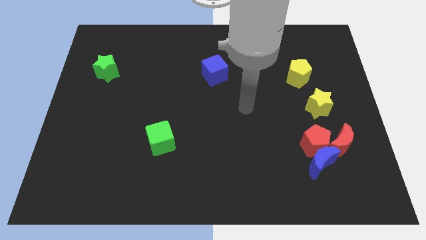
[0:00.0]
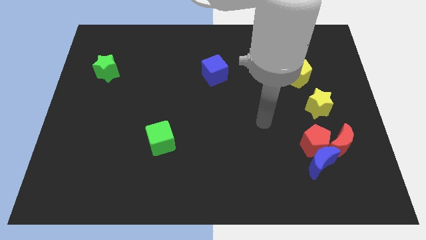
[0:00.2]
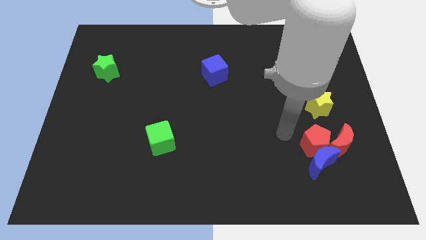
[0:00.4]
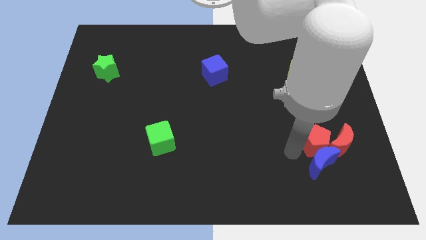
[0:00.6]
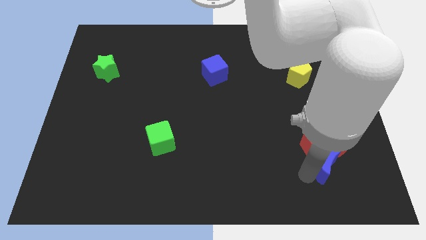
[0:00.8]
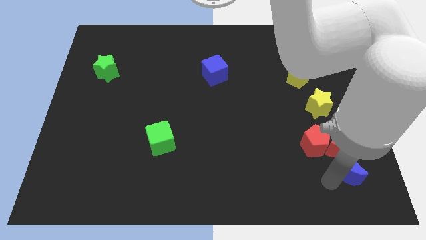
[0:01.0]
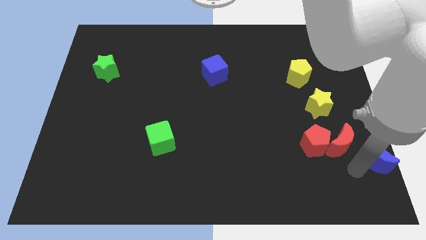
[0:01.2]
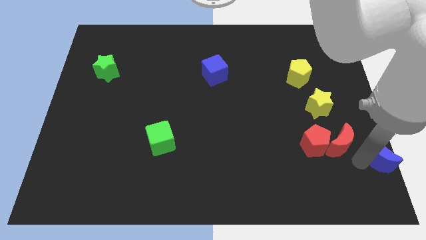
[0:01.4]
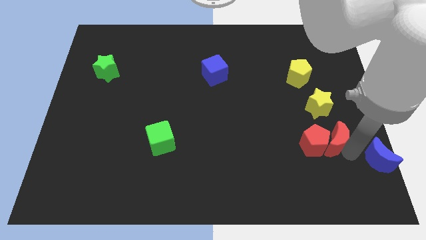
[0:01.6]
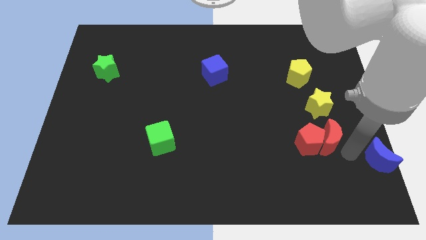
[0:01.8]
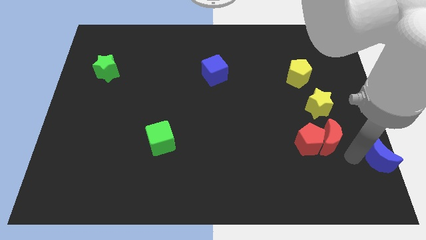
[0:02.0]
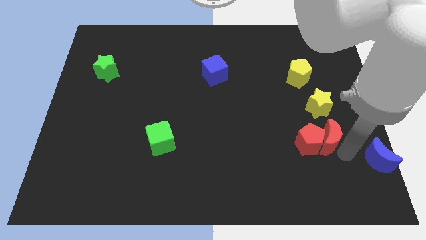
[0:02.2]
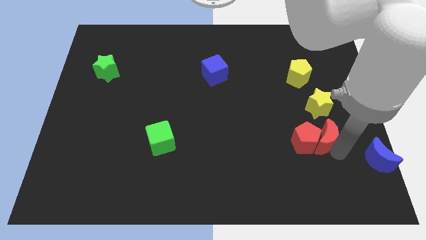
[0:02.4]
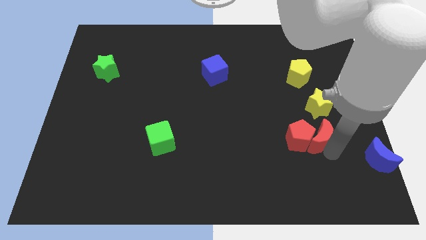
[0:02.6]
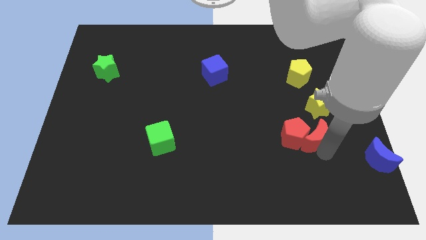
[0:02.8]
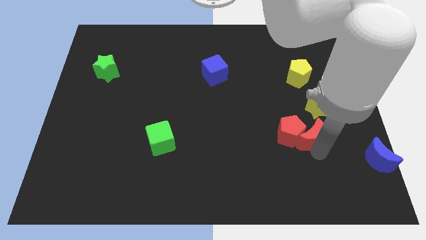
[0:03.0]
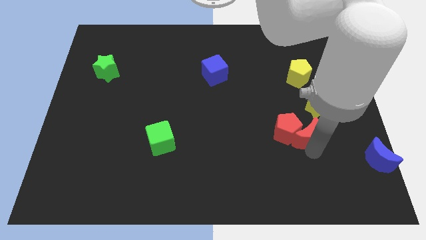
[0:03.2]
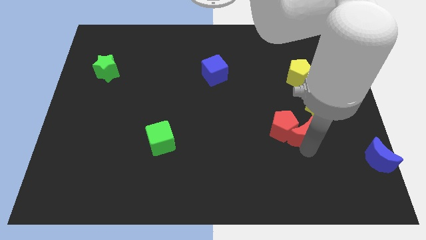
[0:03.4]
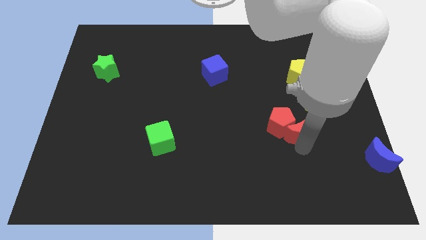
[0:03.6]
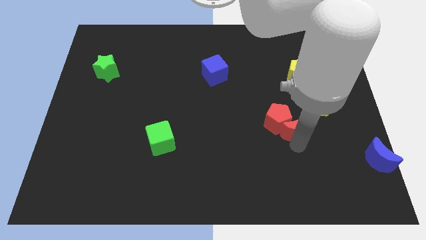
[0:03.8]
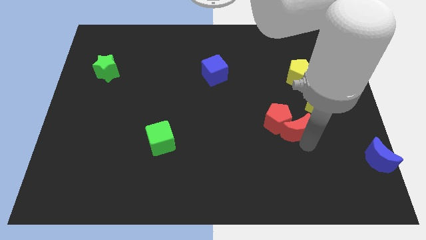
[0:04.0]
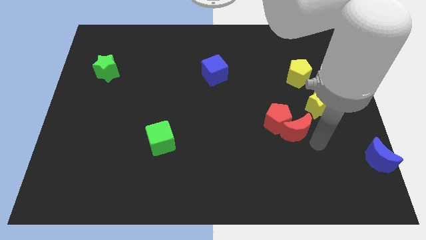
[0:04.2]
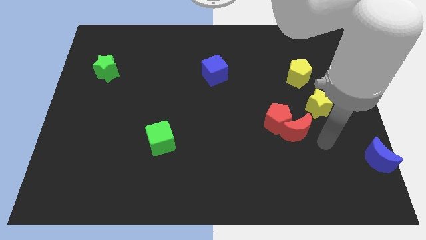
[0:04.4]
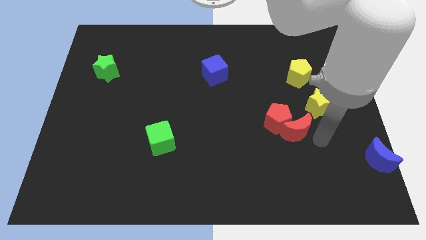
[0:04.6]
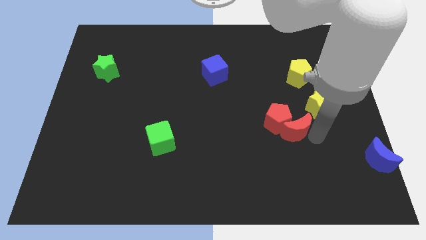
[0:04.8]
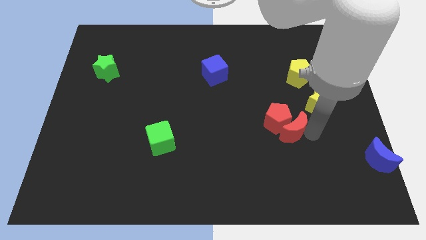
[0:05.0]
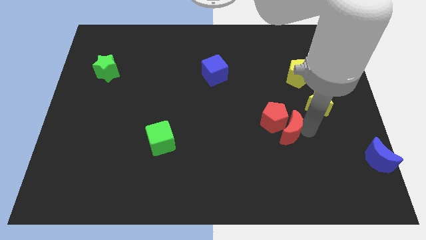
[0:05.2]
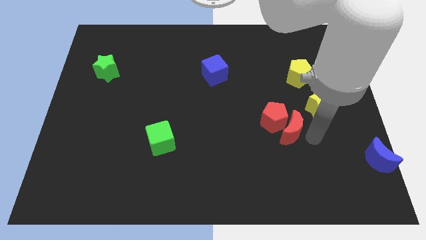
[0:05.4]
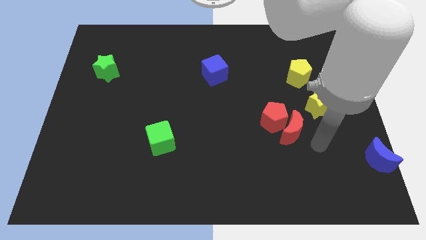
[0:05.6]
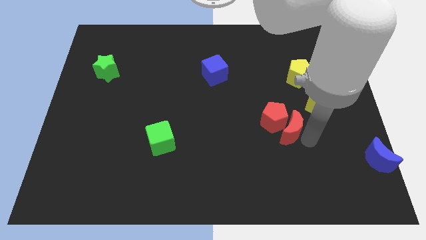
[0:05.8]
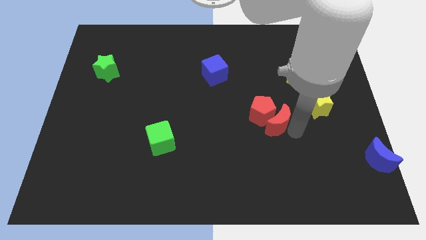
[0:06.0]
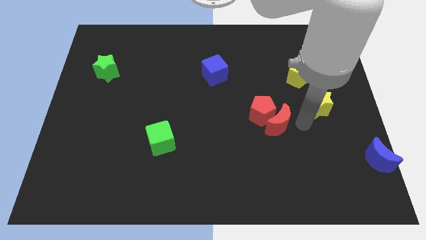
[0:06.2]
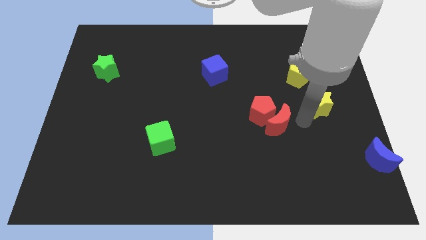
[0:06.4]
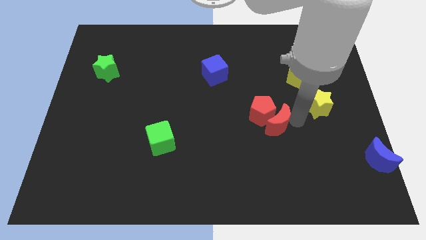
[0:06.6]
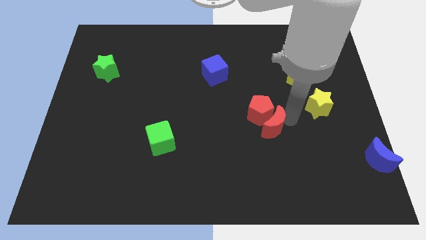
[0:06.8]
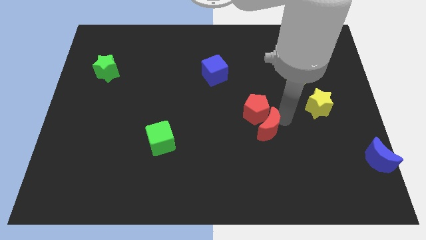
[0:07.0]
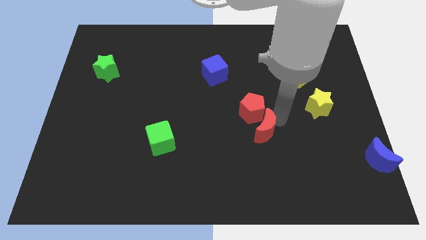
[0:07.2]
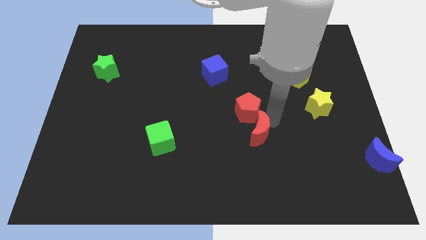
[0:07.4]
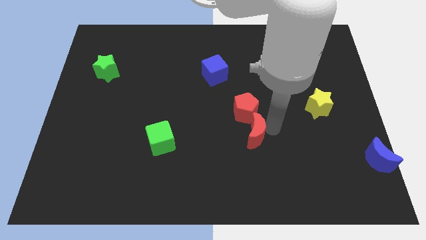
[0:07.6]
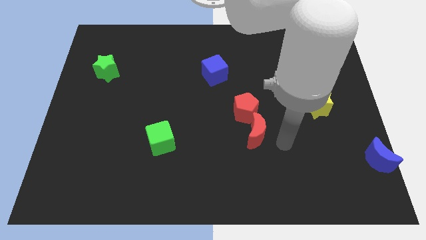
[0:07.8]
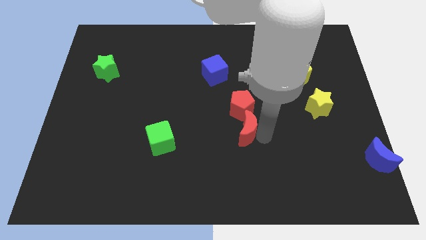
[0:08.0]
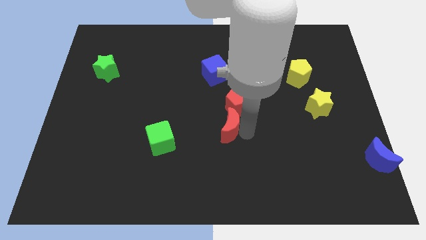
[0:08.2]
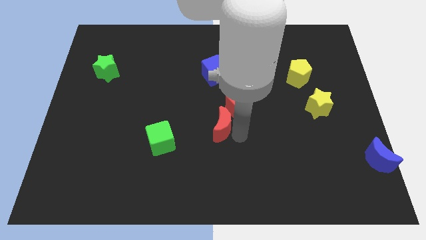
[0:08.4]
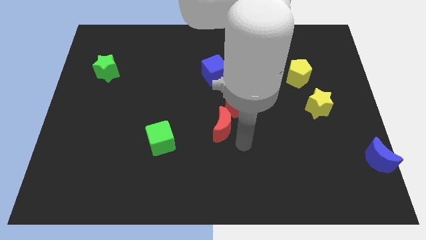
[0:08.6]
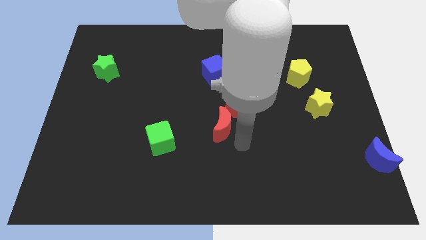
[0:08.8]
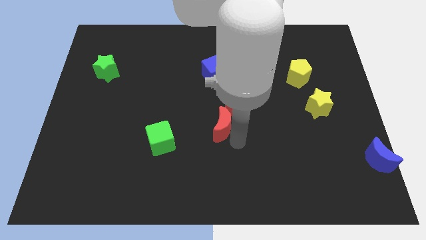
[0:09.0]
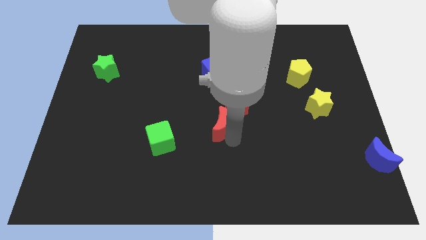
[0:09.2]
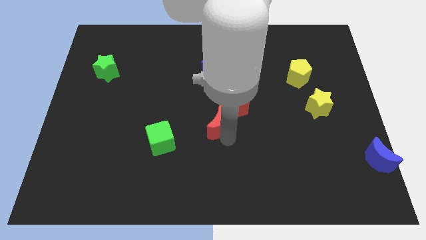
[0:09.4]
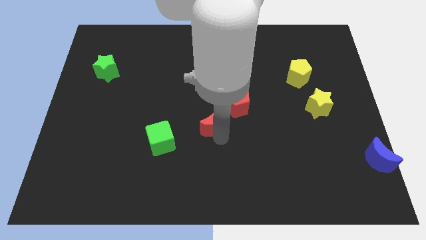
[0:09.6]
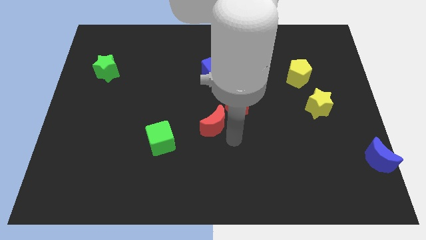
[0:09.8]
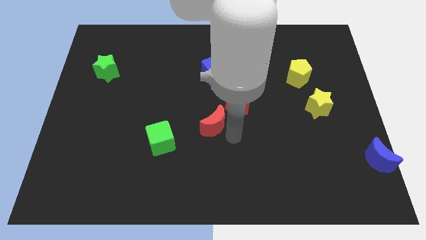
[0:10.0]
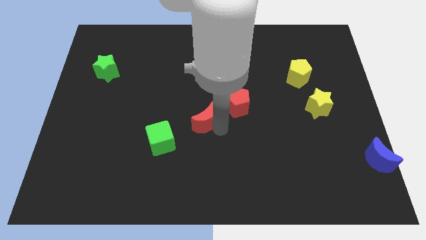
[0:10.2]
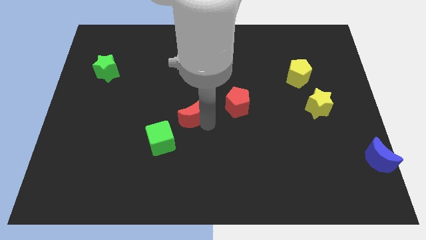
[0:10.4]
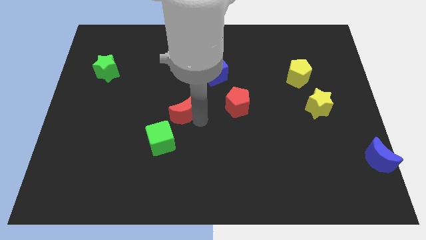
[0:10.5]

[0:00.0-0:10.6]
push the red moon above the green cube

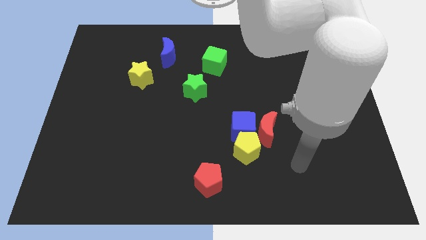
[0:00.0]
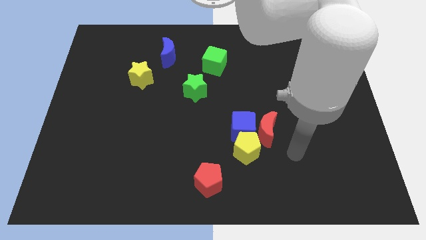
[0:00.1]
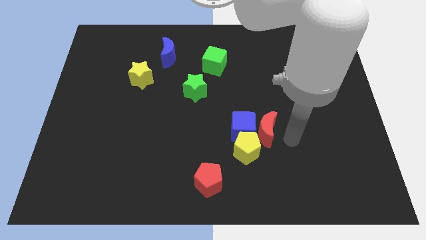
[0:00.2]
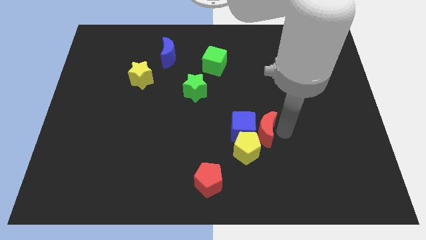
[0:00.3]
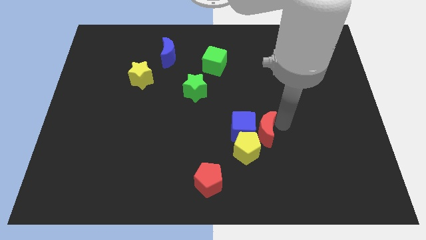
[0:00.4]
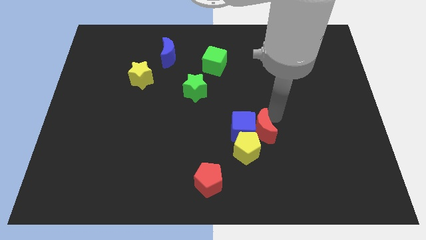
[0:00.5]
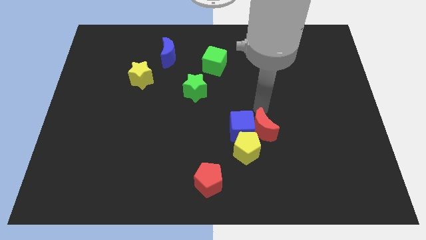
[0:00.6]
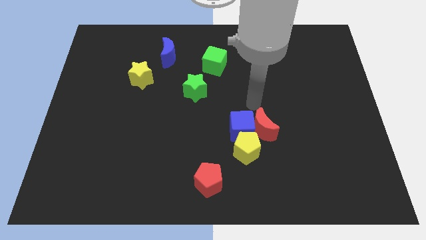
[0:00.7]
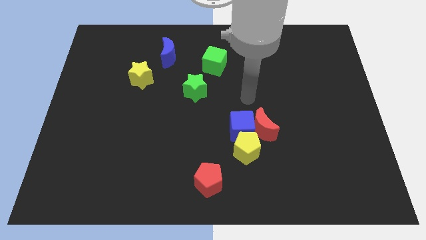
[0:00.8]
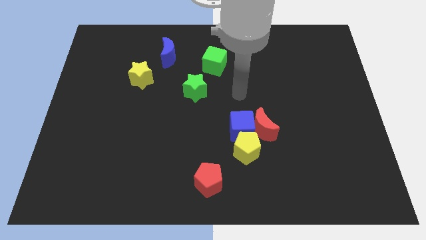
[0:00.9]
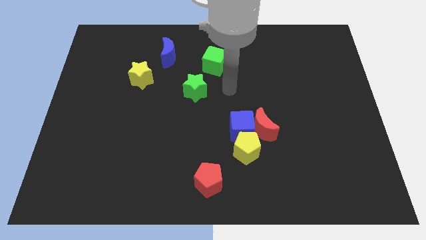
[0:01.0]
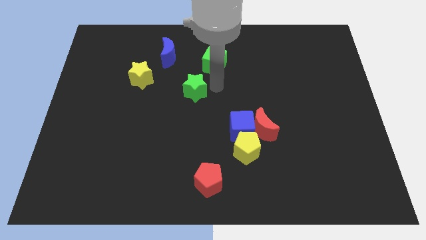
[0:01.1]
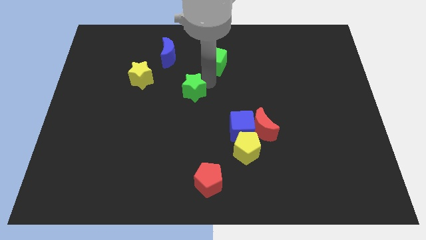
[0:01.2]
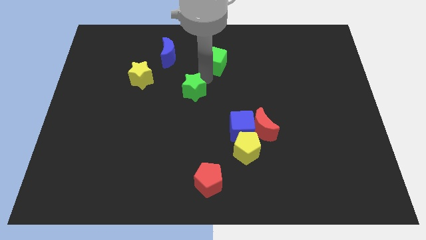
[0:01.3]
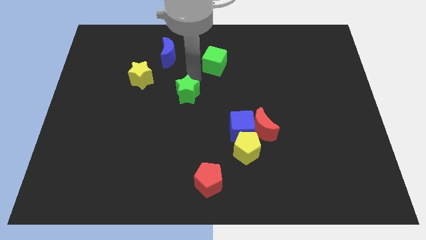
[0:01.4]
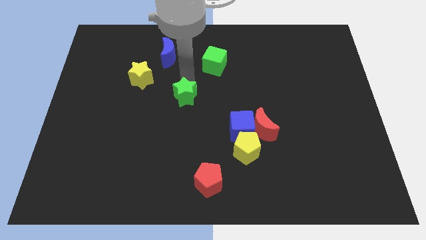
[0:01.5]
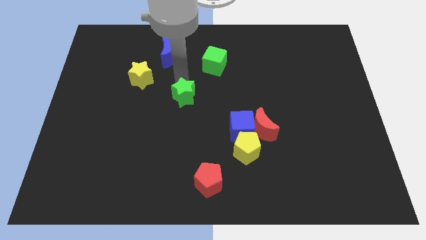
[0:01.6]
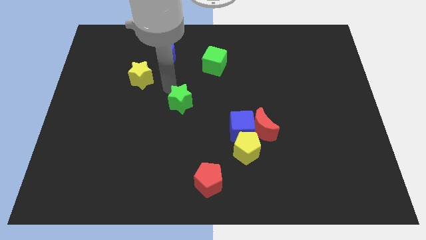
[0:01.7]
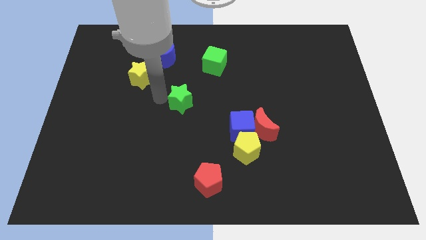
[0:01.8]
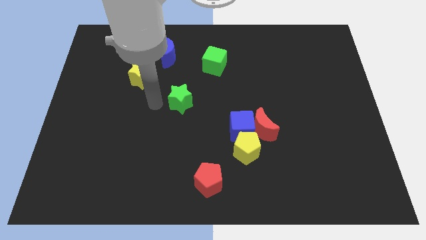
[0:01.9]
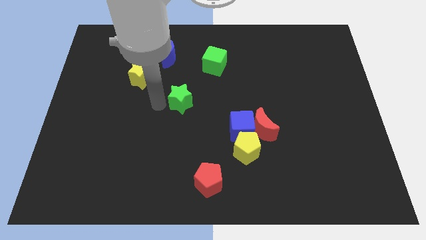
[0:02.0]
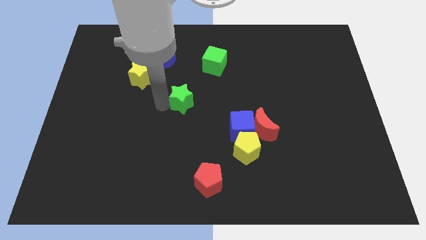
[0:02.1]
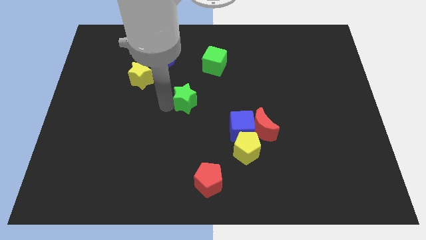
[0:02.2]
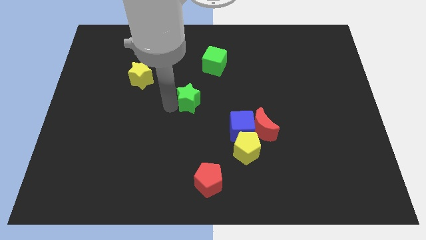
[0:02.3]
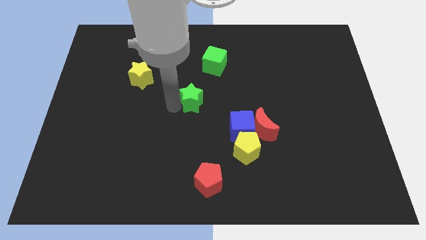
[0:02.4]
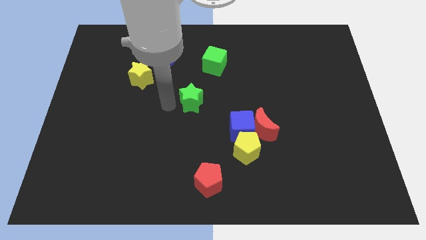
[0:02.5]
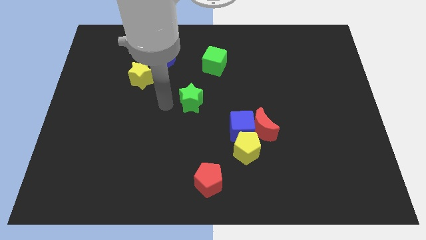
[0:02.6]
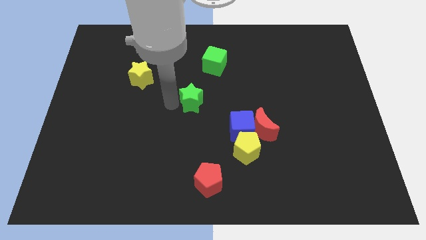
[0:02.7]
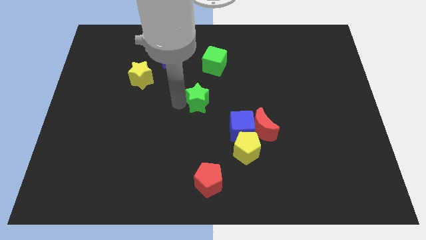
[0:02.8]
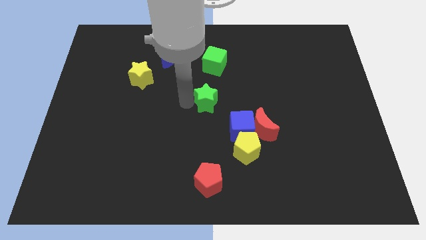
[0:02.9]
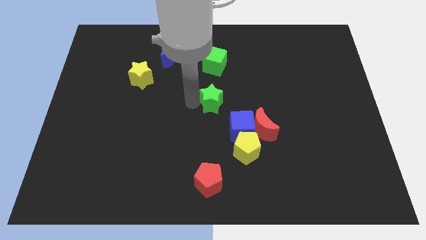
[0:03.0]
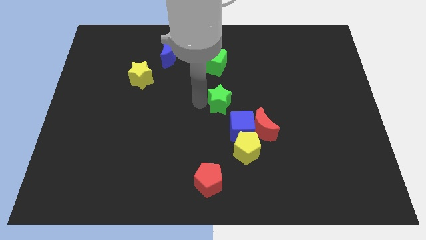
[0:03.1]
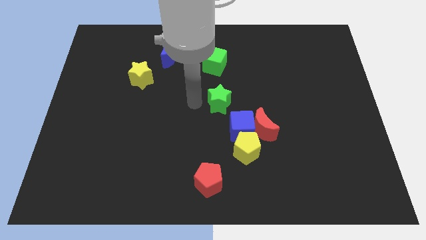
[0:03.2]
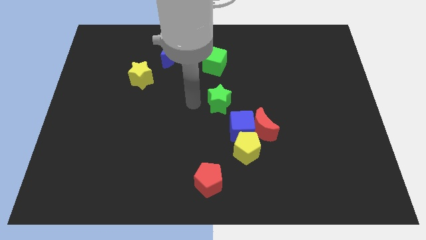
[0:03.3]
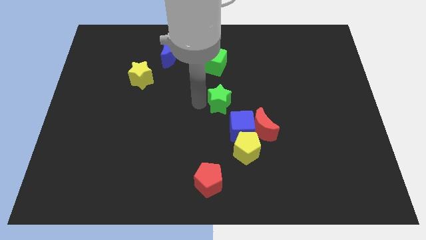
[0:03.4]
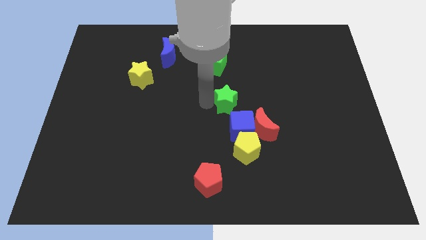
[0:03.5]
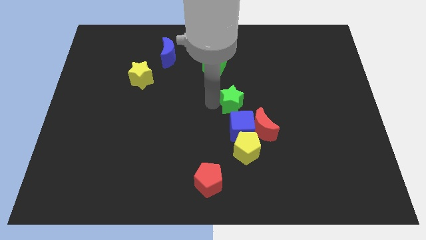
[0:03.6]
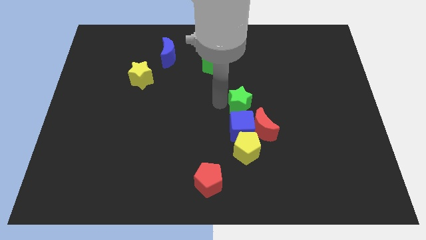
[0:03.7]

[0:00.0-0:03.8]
push the green star to the top right of the blue cube
